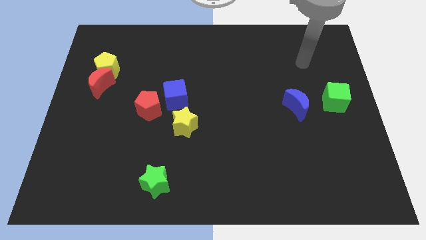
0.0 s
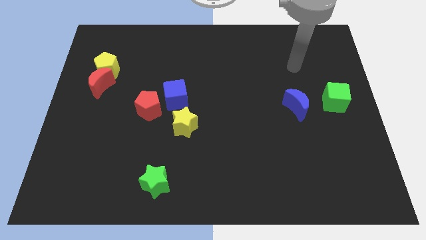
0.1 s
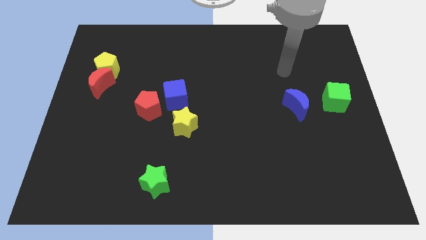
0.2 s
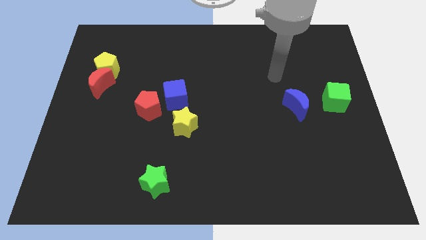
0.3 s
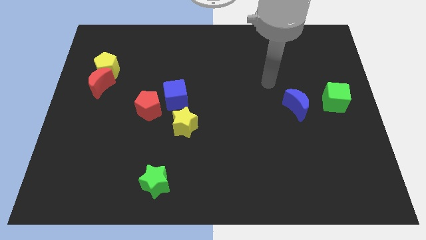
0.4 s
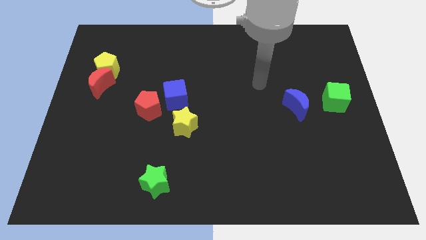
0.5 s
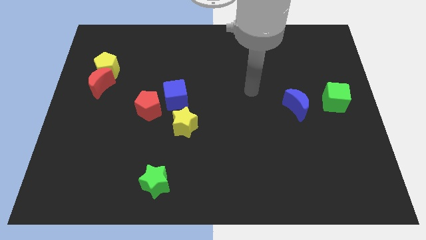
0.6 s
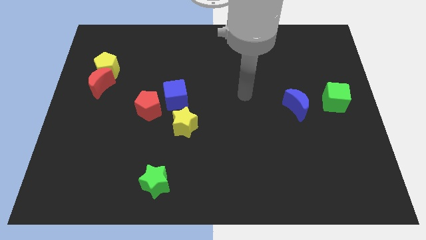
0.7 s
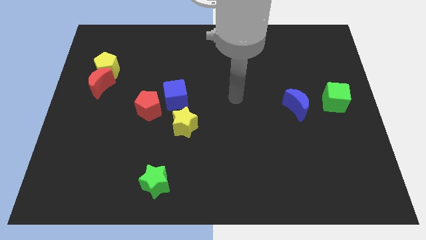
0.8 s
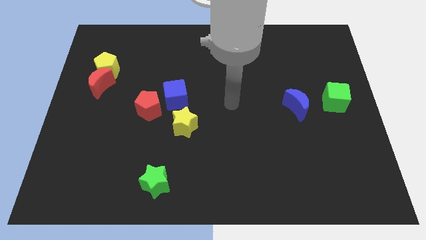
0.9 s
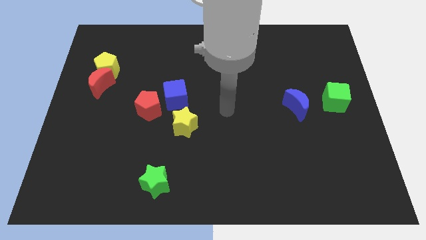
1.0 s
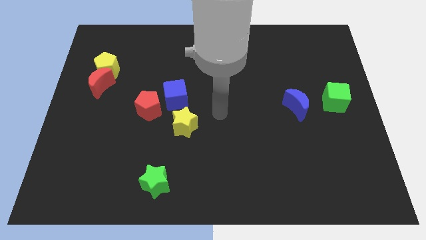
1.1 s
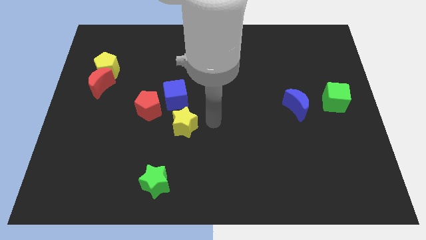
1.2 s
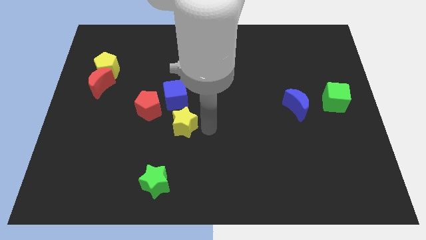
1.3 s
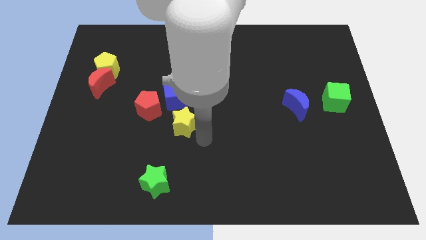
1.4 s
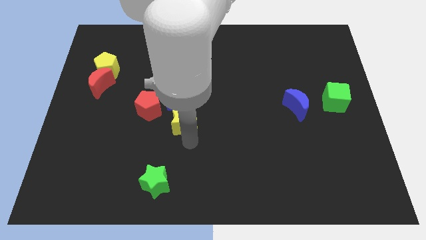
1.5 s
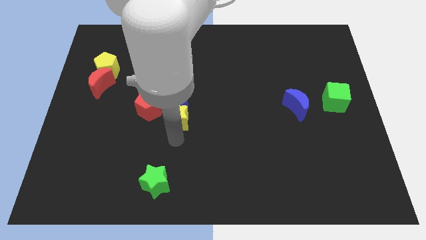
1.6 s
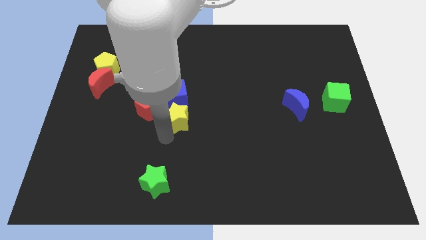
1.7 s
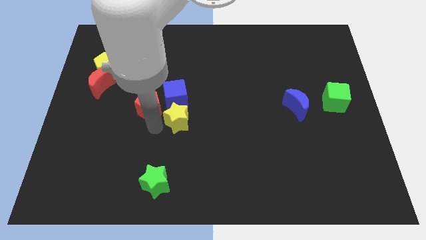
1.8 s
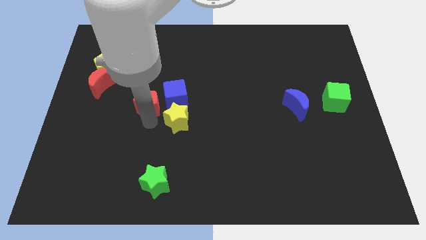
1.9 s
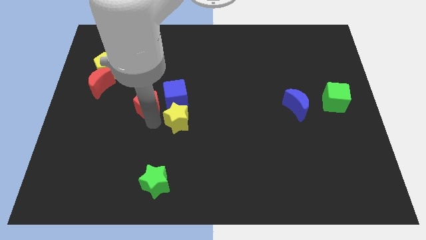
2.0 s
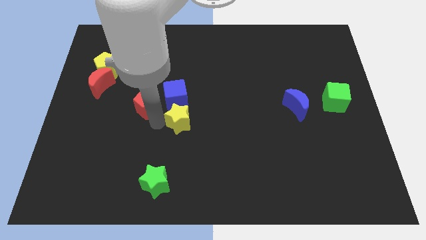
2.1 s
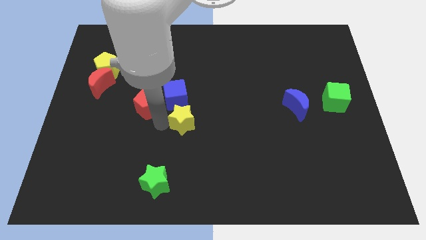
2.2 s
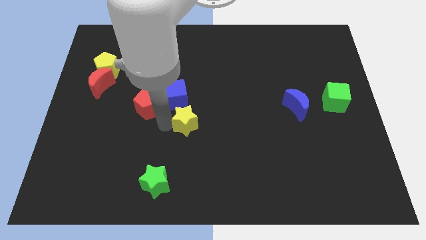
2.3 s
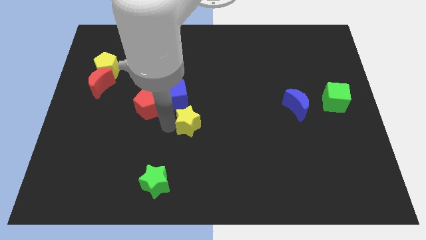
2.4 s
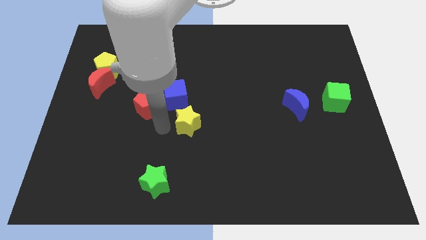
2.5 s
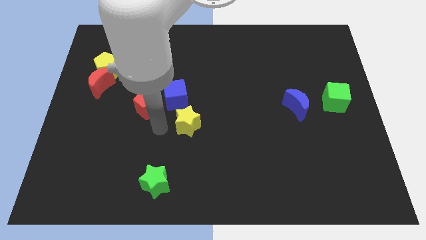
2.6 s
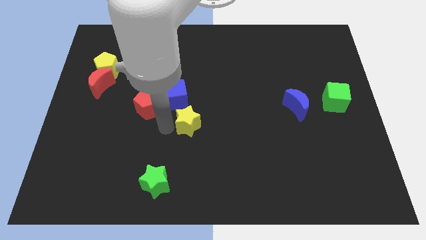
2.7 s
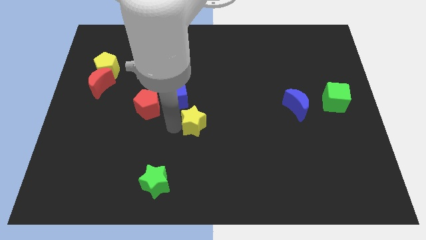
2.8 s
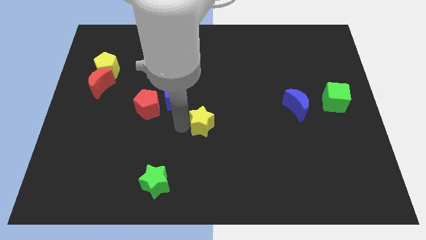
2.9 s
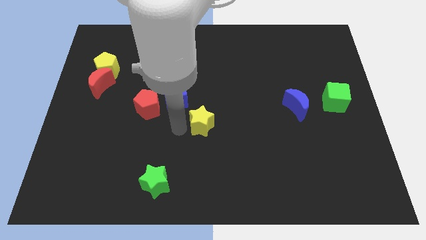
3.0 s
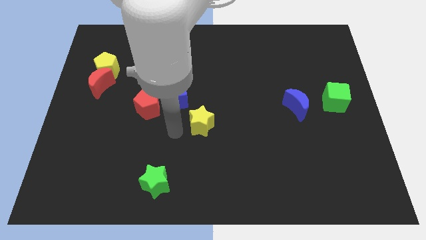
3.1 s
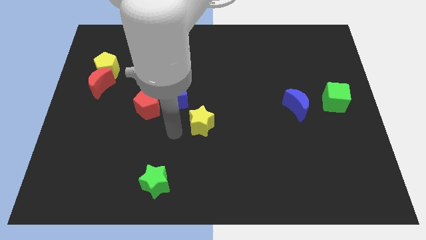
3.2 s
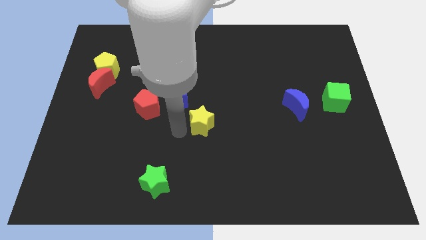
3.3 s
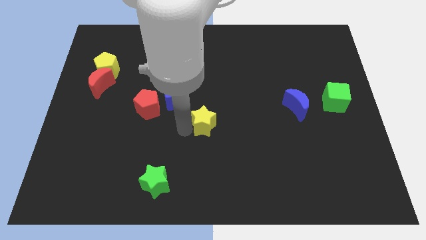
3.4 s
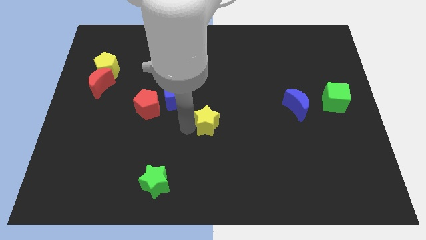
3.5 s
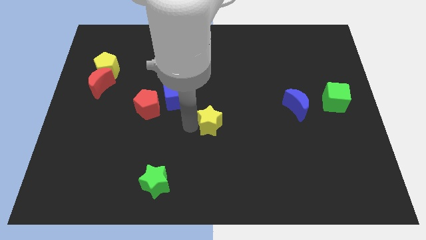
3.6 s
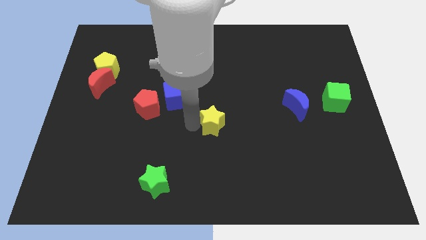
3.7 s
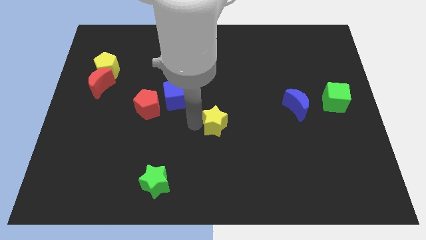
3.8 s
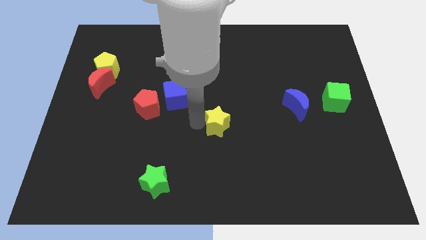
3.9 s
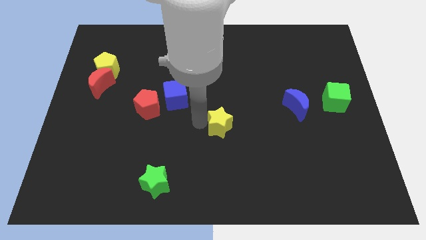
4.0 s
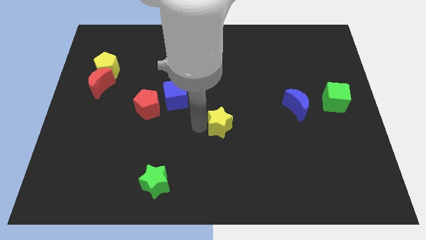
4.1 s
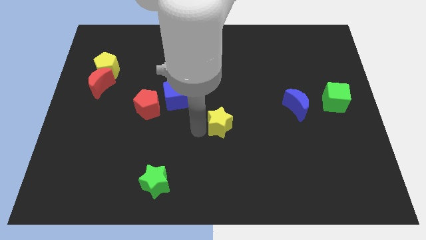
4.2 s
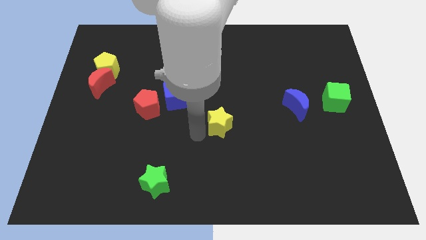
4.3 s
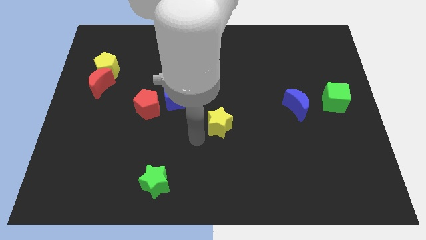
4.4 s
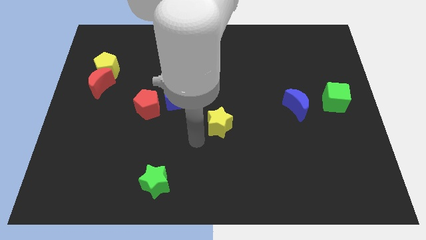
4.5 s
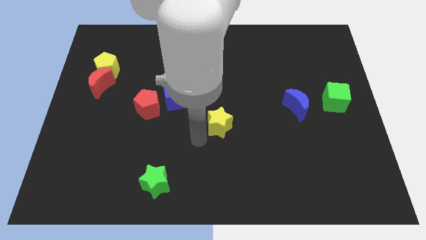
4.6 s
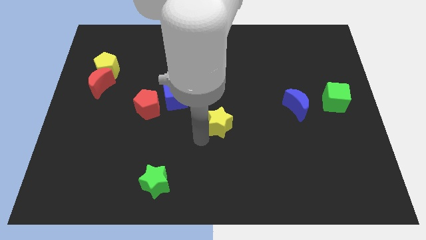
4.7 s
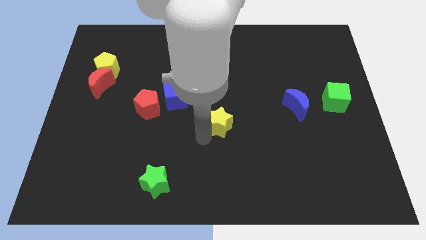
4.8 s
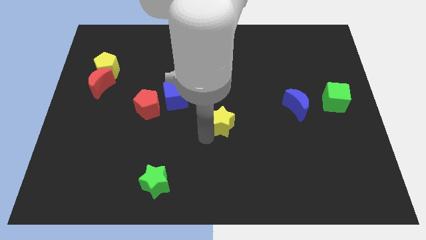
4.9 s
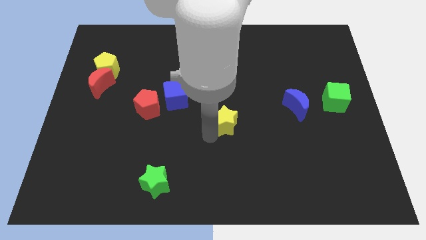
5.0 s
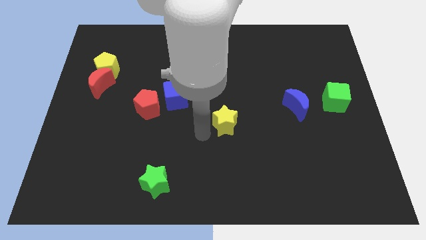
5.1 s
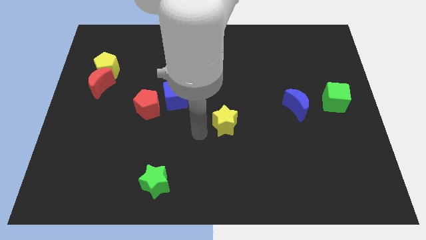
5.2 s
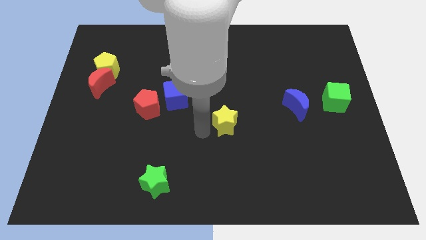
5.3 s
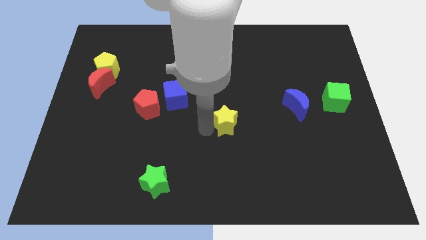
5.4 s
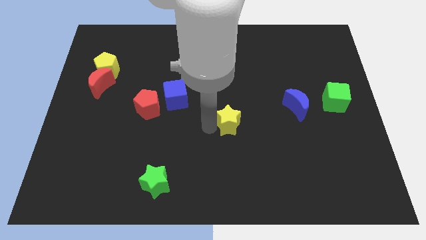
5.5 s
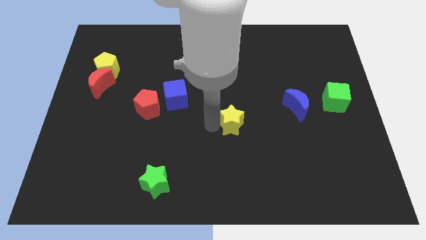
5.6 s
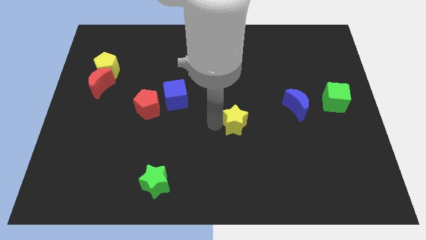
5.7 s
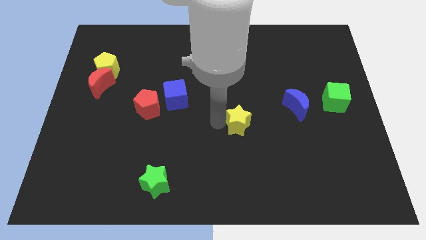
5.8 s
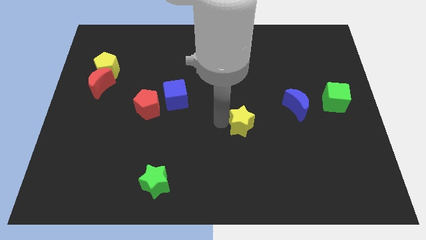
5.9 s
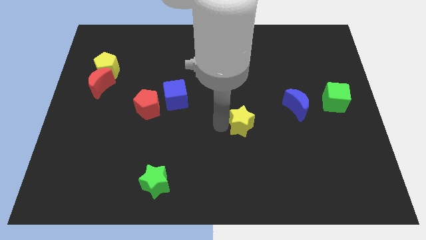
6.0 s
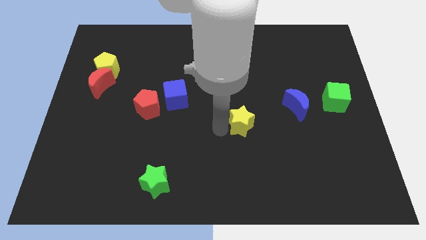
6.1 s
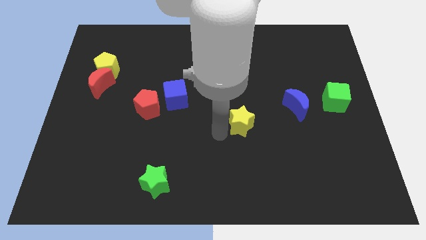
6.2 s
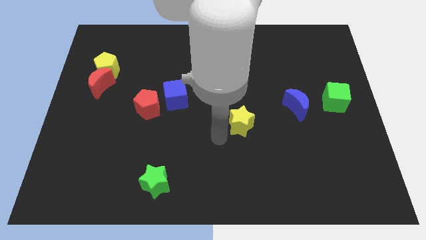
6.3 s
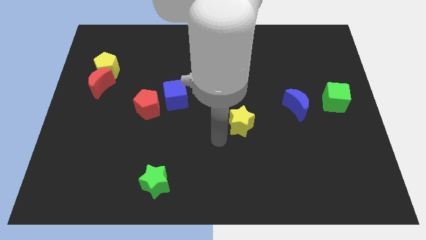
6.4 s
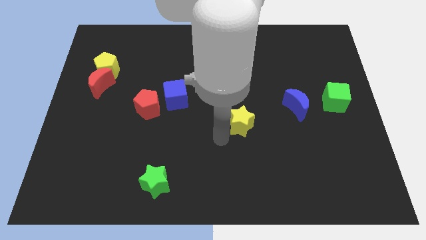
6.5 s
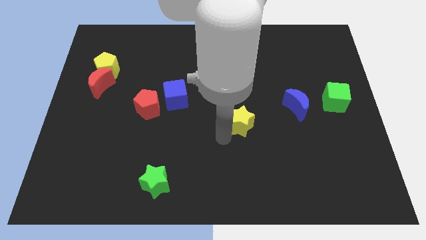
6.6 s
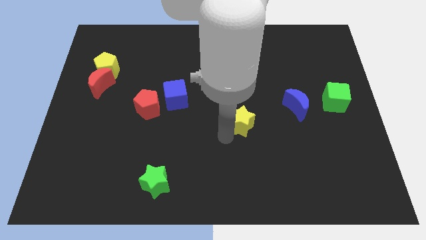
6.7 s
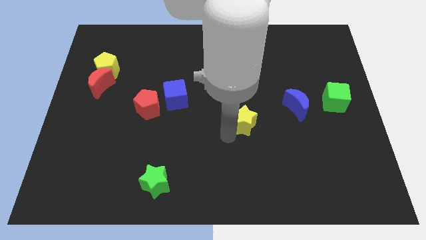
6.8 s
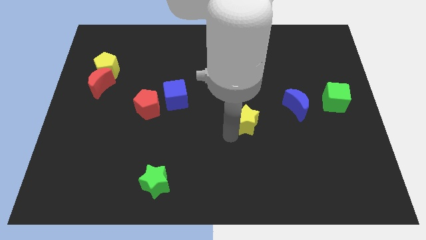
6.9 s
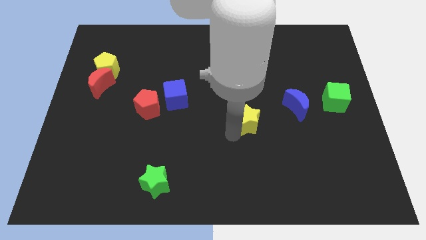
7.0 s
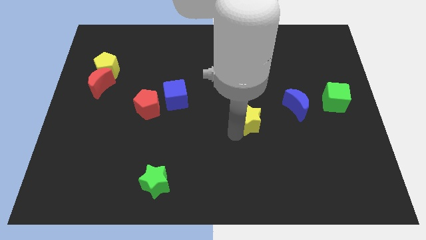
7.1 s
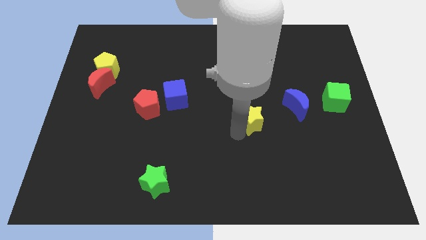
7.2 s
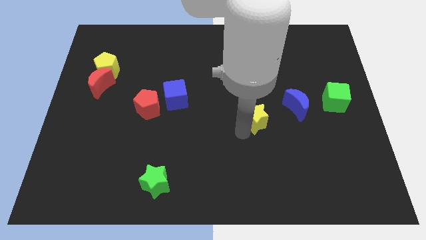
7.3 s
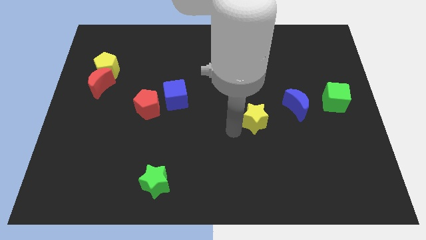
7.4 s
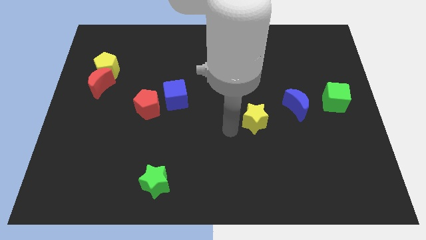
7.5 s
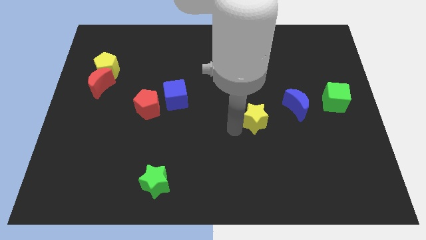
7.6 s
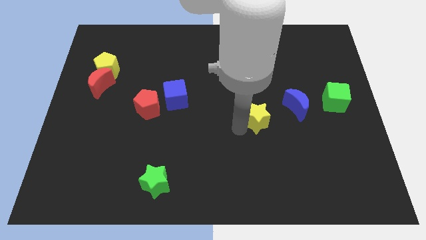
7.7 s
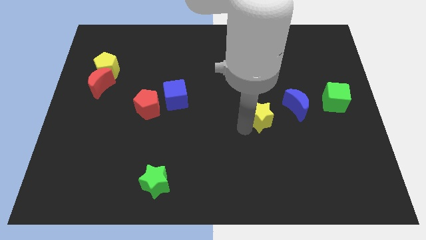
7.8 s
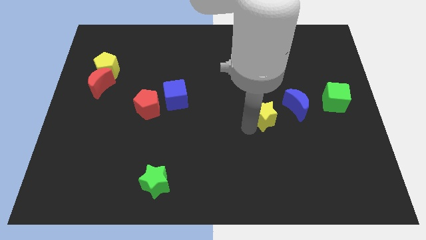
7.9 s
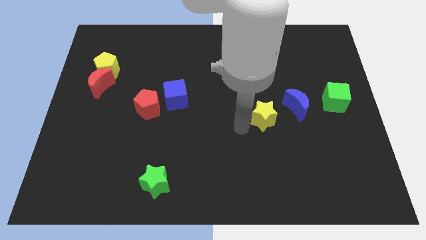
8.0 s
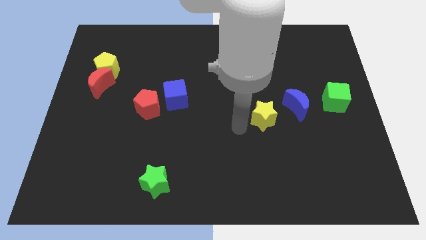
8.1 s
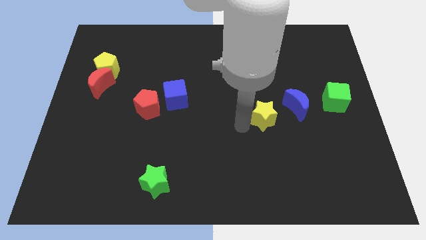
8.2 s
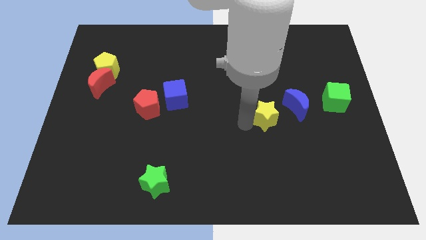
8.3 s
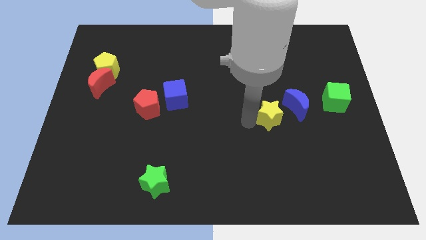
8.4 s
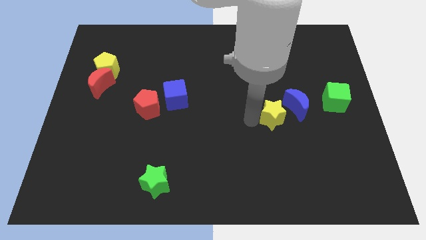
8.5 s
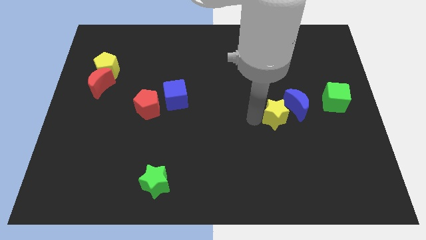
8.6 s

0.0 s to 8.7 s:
put the yellow star close to the blue moon
